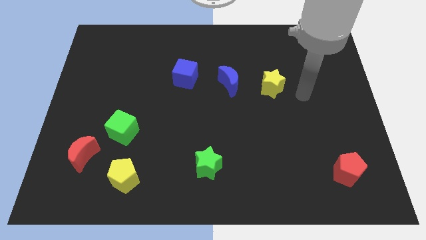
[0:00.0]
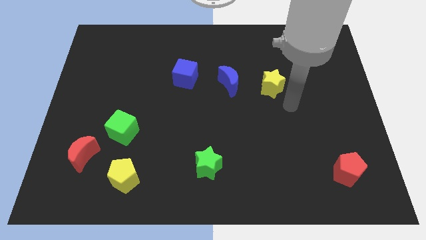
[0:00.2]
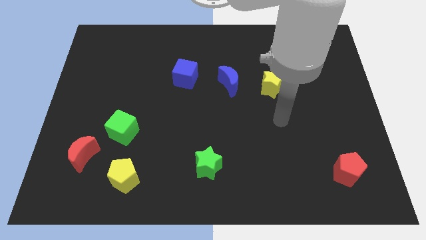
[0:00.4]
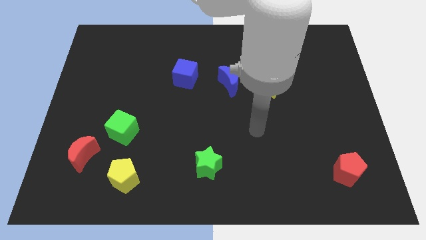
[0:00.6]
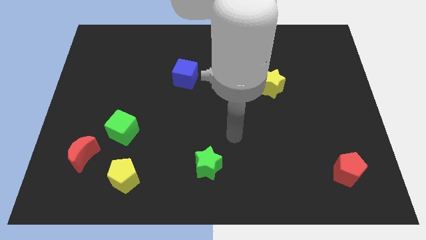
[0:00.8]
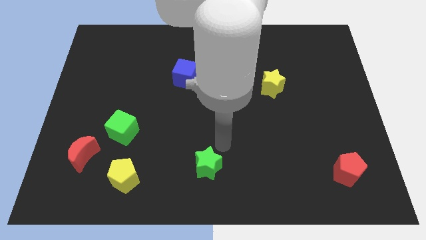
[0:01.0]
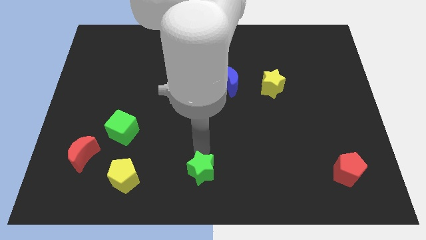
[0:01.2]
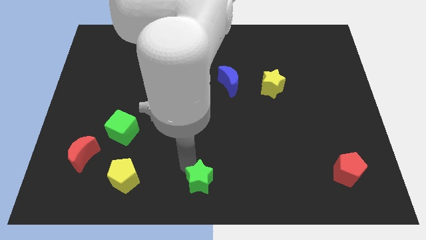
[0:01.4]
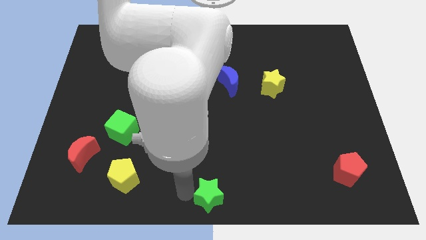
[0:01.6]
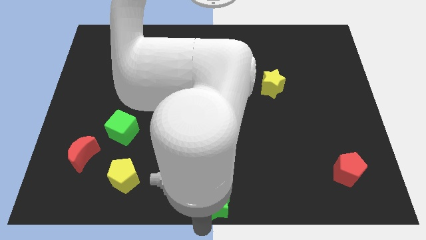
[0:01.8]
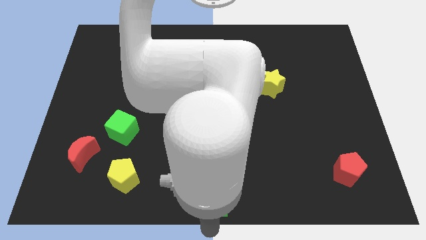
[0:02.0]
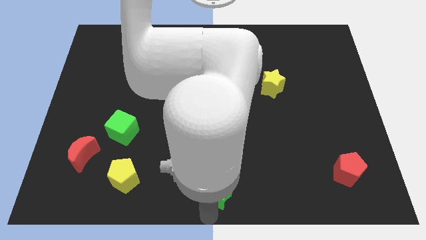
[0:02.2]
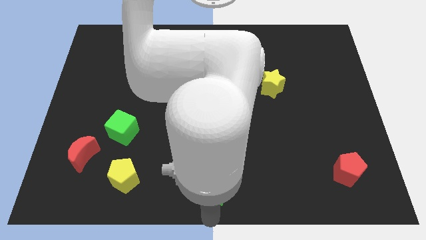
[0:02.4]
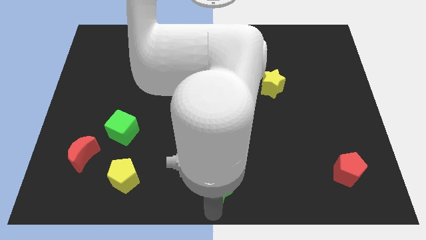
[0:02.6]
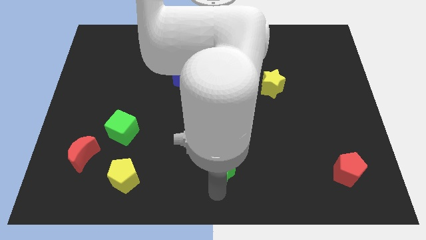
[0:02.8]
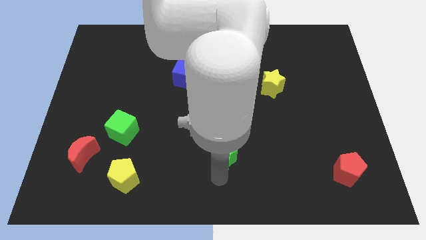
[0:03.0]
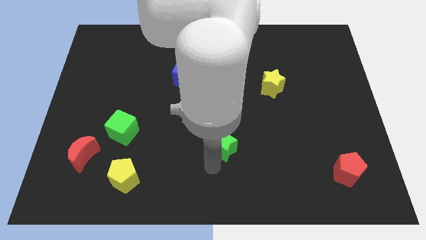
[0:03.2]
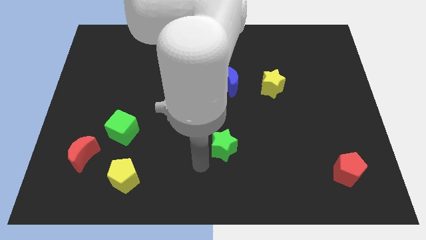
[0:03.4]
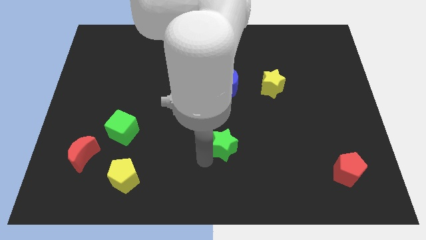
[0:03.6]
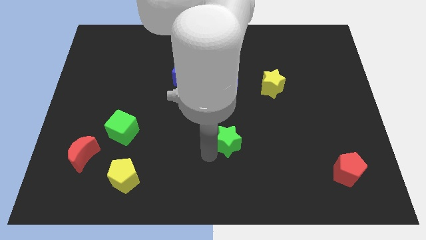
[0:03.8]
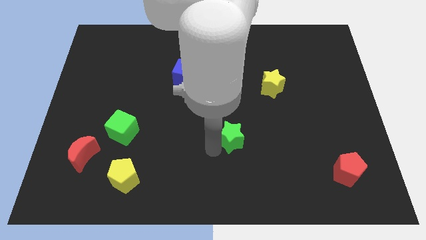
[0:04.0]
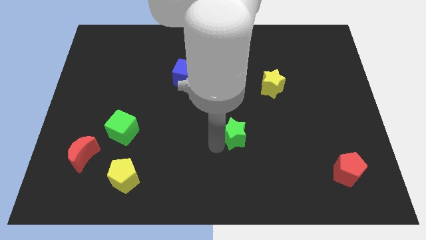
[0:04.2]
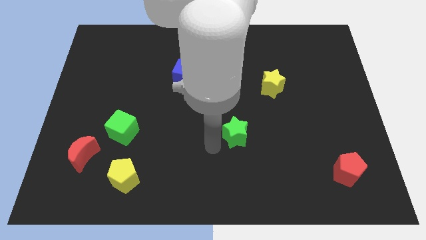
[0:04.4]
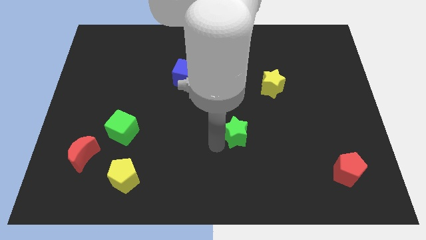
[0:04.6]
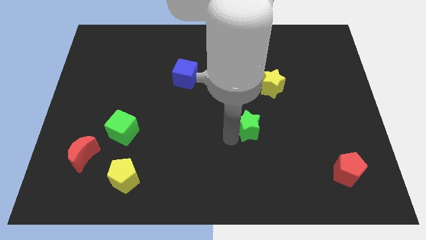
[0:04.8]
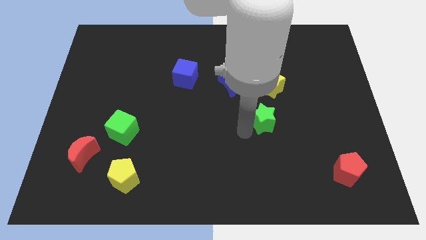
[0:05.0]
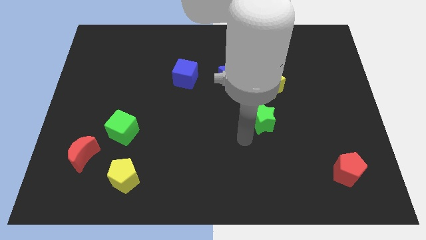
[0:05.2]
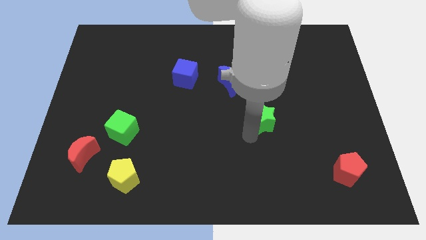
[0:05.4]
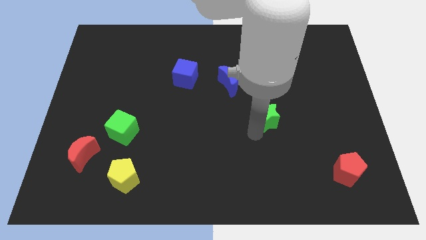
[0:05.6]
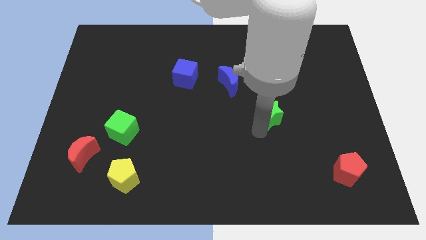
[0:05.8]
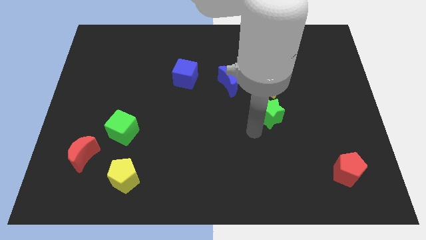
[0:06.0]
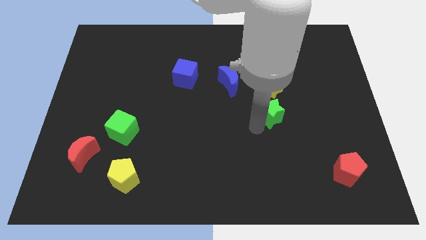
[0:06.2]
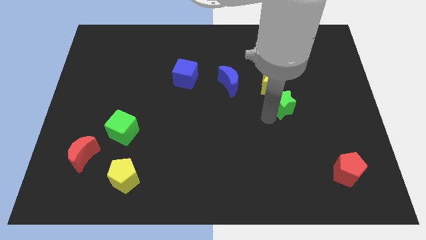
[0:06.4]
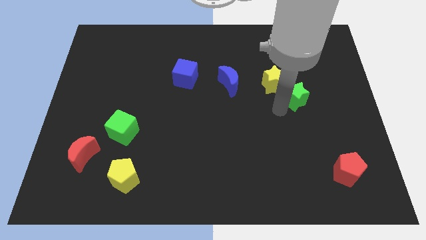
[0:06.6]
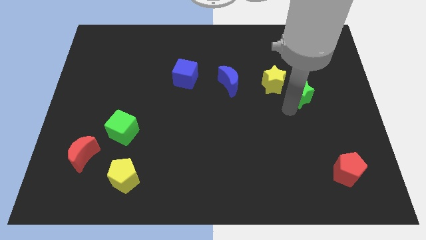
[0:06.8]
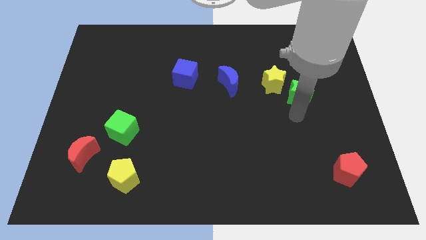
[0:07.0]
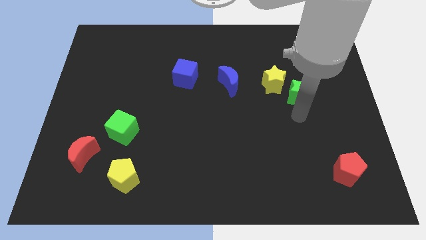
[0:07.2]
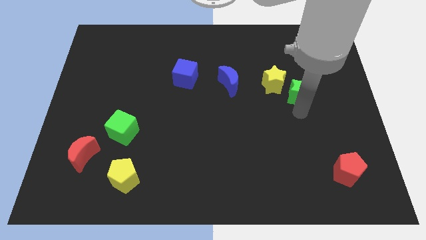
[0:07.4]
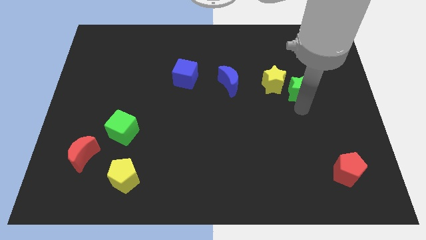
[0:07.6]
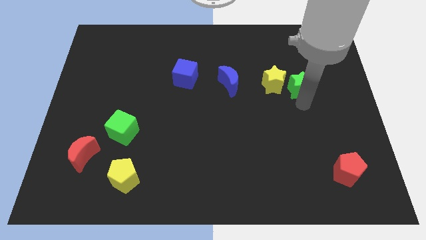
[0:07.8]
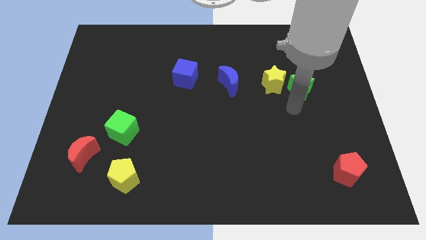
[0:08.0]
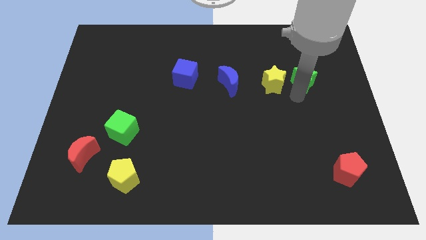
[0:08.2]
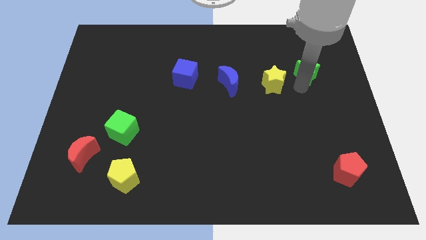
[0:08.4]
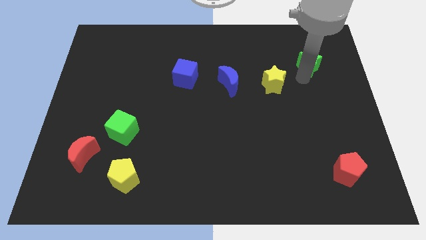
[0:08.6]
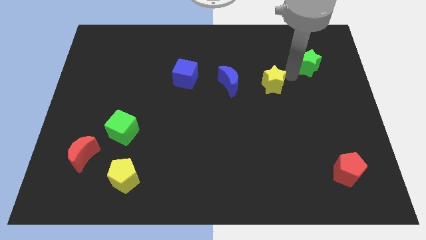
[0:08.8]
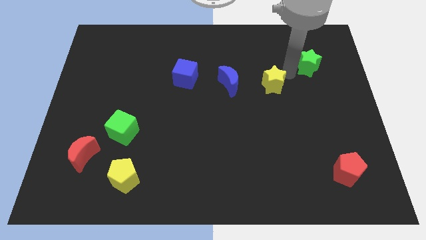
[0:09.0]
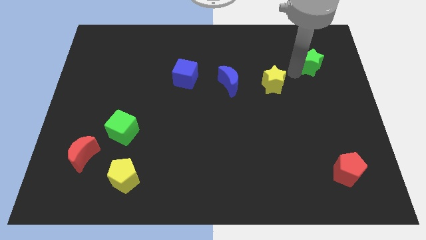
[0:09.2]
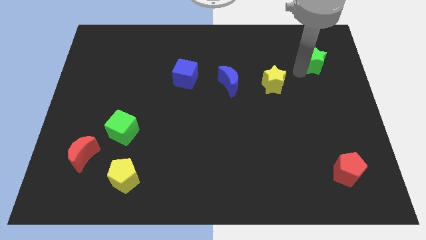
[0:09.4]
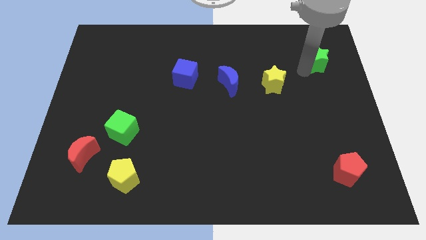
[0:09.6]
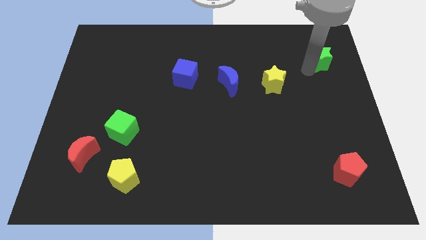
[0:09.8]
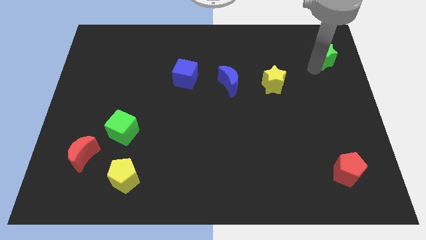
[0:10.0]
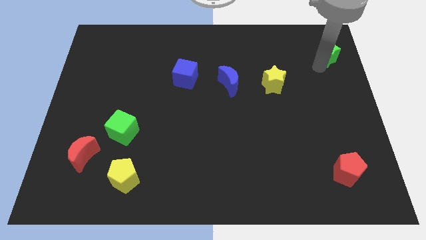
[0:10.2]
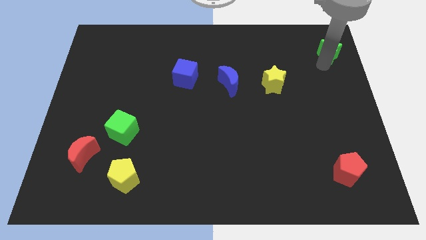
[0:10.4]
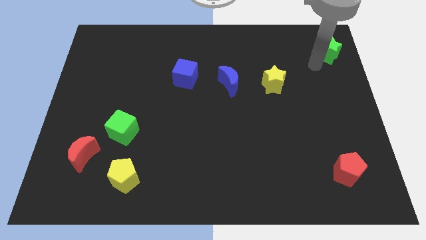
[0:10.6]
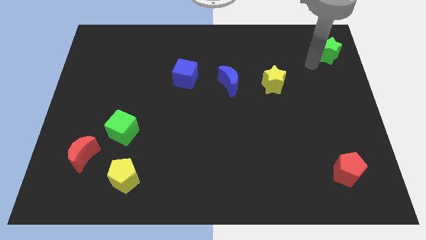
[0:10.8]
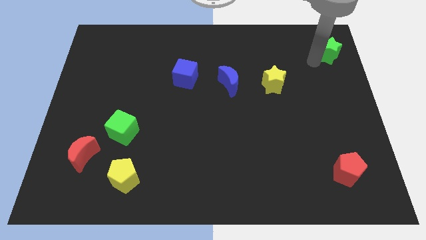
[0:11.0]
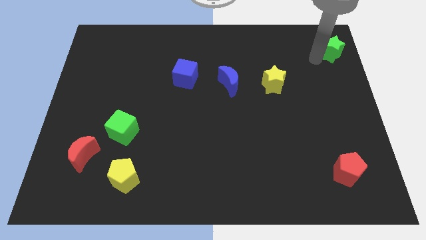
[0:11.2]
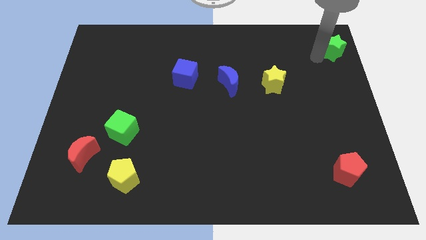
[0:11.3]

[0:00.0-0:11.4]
move the green star to the top right
